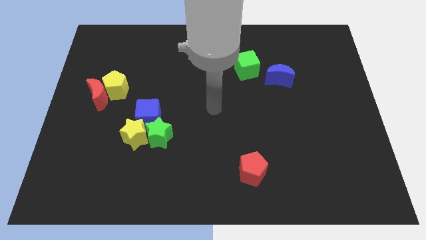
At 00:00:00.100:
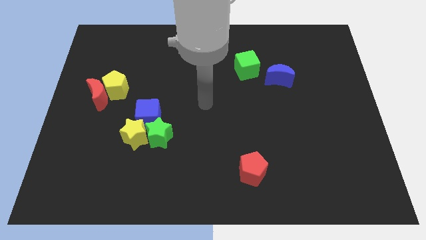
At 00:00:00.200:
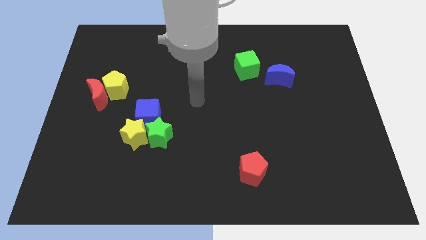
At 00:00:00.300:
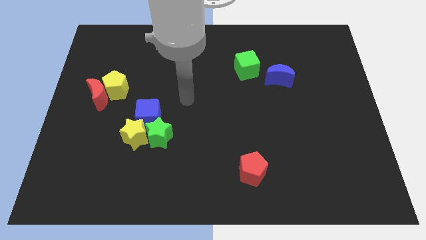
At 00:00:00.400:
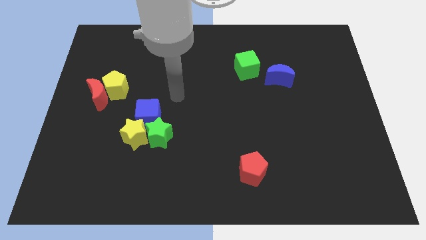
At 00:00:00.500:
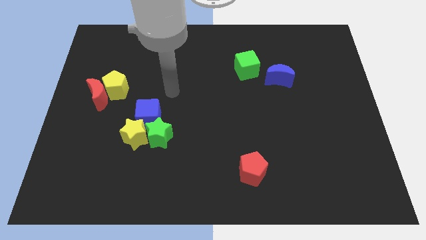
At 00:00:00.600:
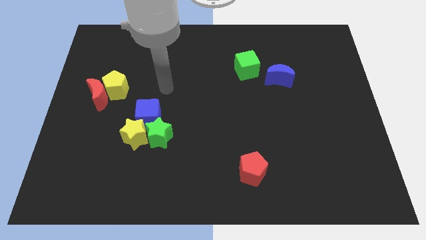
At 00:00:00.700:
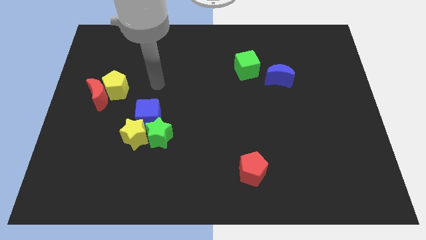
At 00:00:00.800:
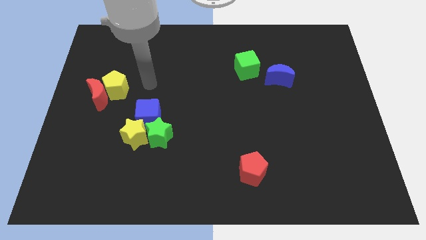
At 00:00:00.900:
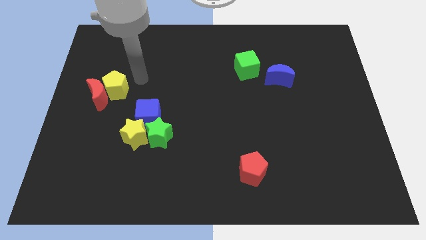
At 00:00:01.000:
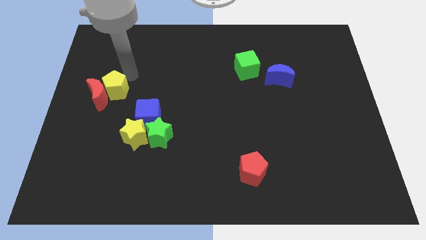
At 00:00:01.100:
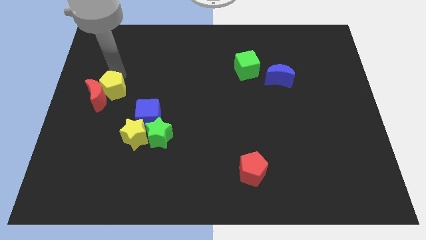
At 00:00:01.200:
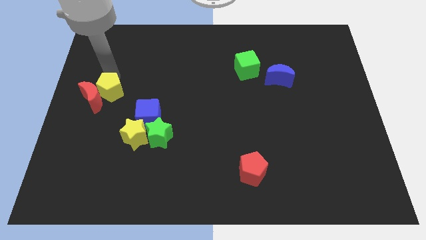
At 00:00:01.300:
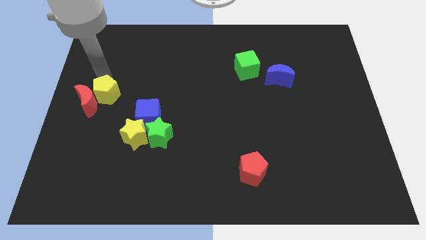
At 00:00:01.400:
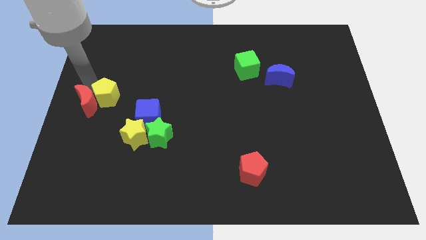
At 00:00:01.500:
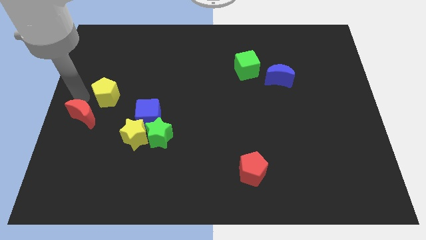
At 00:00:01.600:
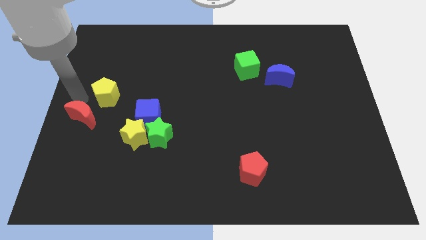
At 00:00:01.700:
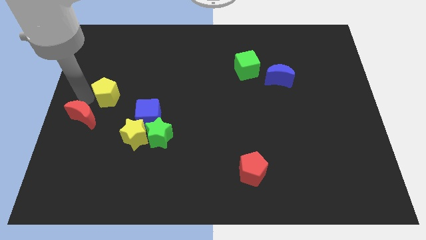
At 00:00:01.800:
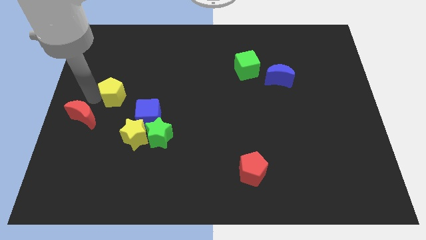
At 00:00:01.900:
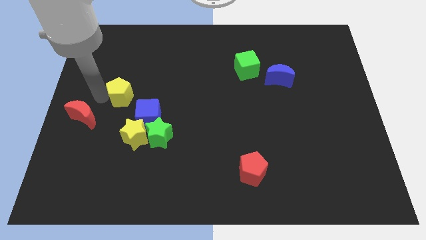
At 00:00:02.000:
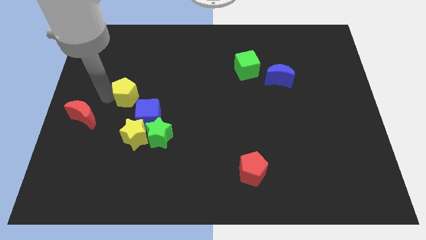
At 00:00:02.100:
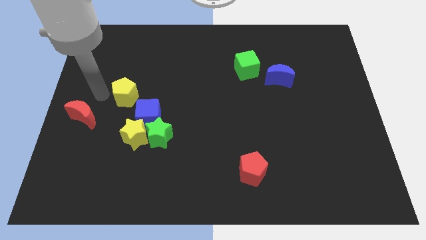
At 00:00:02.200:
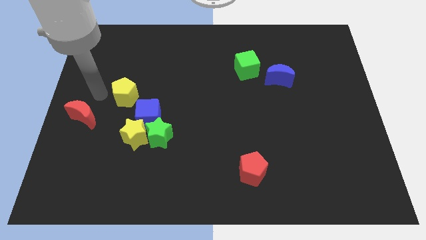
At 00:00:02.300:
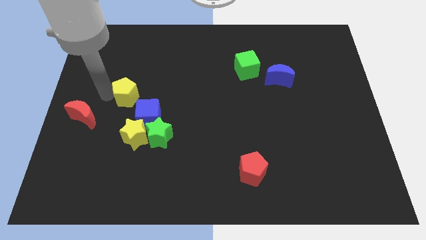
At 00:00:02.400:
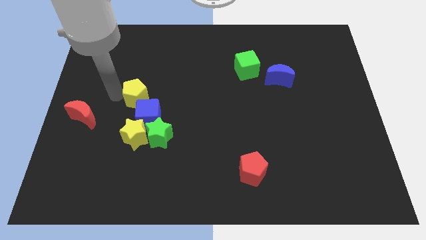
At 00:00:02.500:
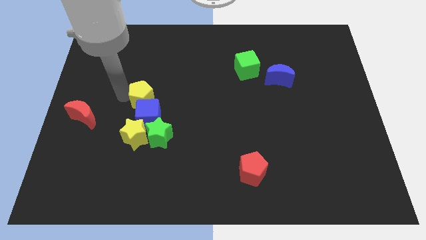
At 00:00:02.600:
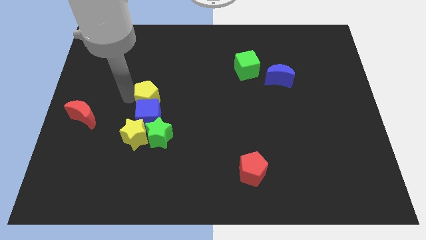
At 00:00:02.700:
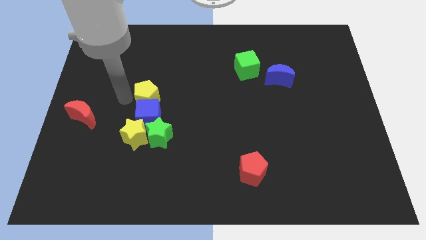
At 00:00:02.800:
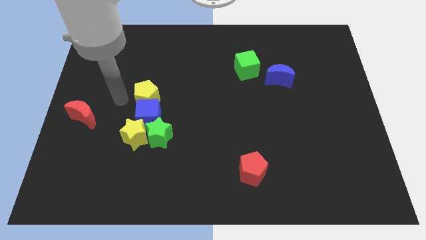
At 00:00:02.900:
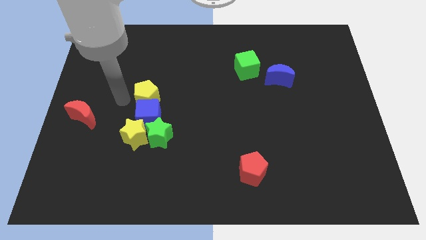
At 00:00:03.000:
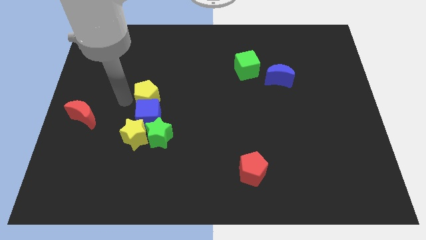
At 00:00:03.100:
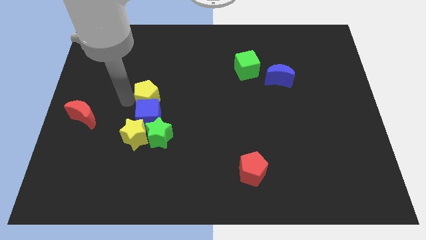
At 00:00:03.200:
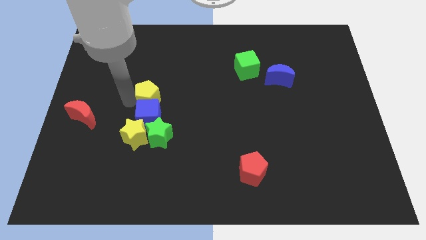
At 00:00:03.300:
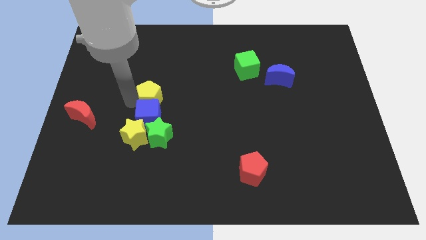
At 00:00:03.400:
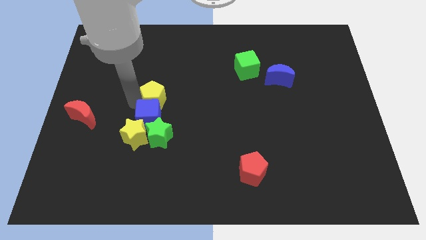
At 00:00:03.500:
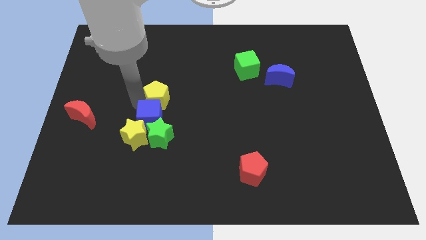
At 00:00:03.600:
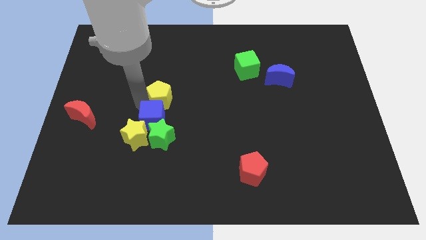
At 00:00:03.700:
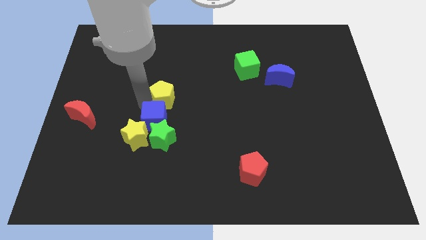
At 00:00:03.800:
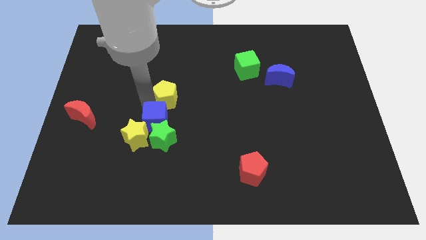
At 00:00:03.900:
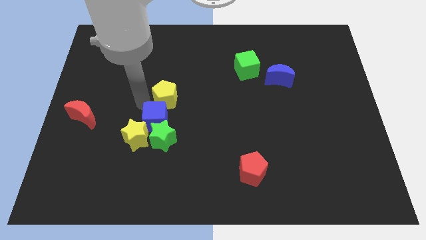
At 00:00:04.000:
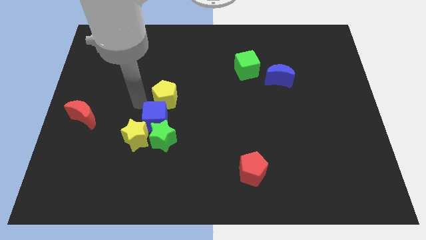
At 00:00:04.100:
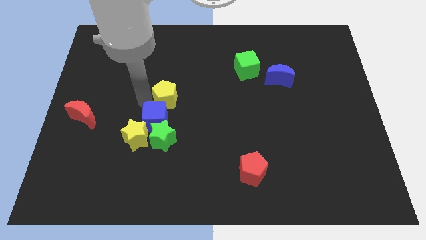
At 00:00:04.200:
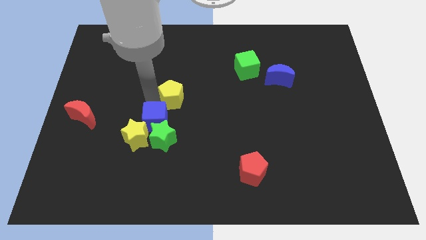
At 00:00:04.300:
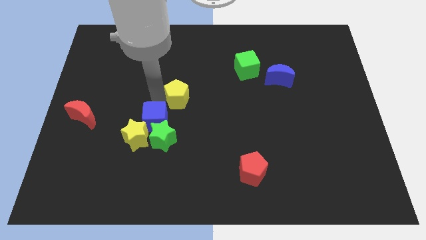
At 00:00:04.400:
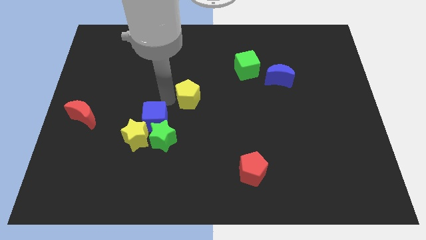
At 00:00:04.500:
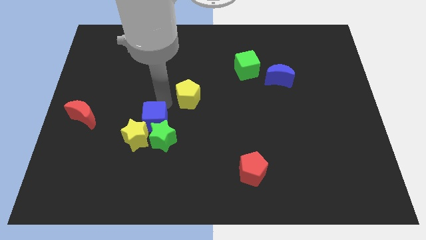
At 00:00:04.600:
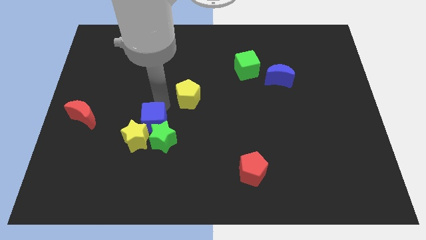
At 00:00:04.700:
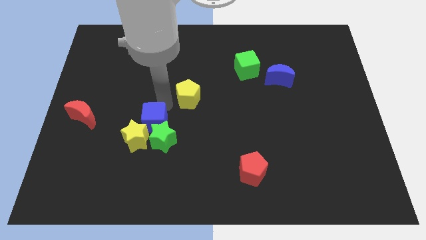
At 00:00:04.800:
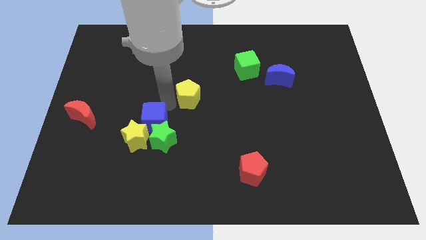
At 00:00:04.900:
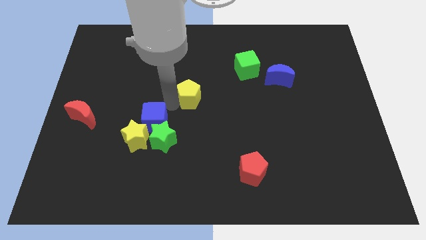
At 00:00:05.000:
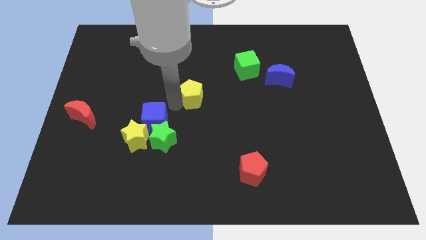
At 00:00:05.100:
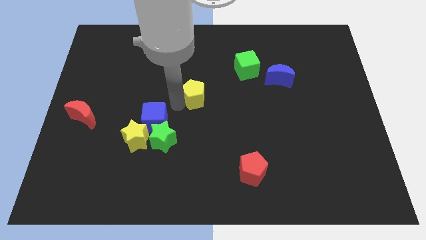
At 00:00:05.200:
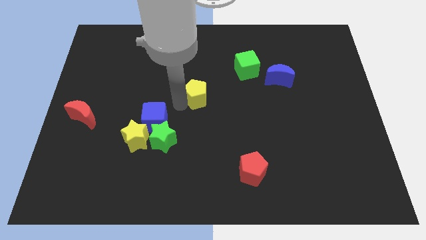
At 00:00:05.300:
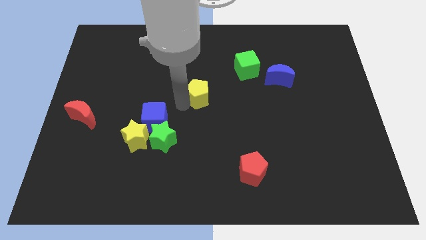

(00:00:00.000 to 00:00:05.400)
push the yellow pentagon right

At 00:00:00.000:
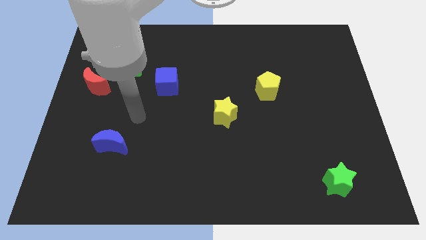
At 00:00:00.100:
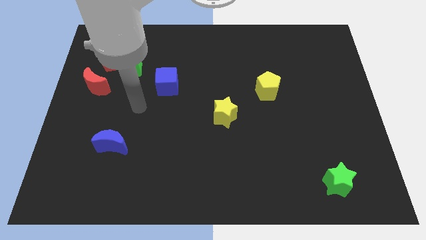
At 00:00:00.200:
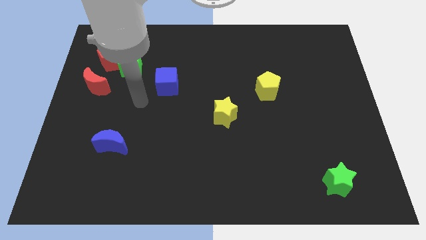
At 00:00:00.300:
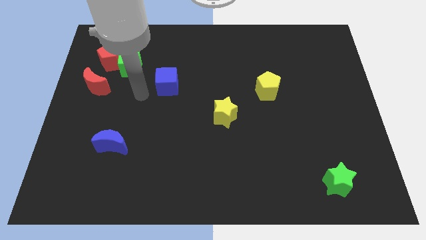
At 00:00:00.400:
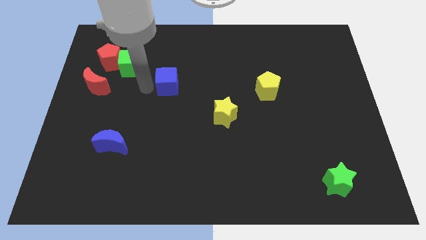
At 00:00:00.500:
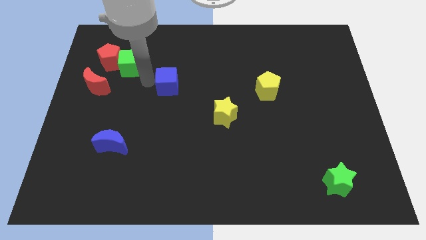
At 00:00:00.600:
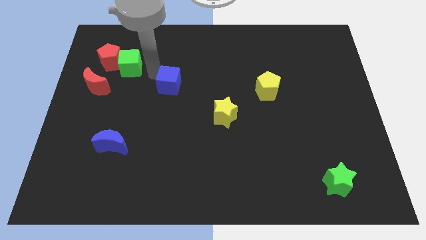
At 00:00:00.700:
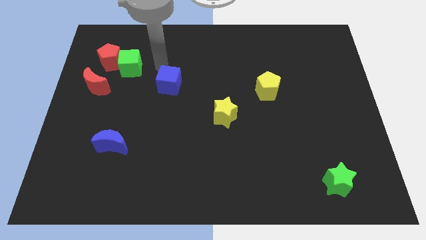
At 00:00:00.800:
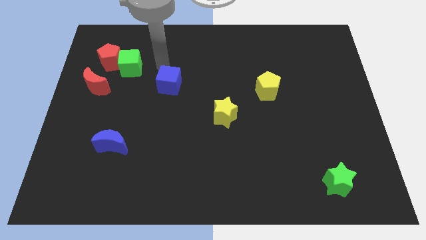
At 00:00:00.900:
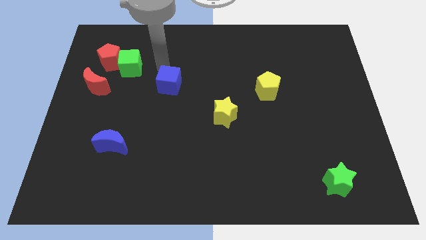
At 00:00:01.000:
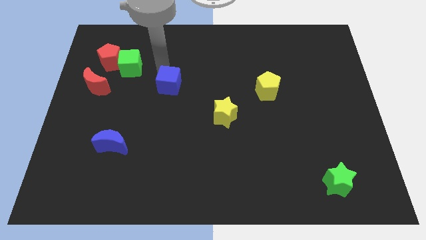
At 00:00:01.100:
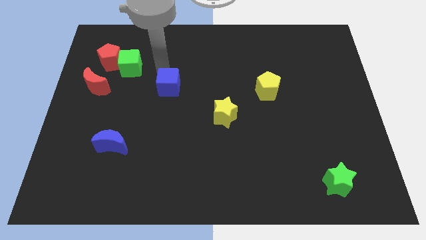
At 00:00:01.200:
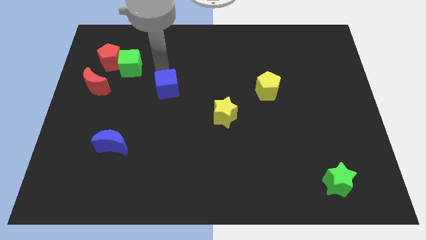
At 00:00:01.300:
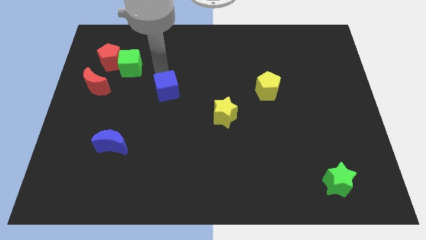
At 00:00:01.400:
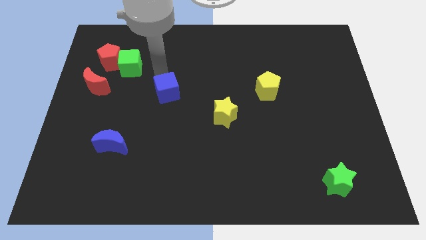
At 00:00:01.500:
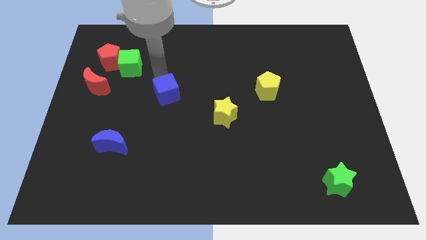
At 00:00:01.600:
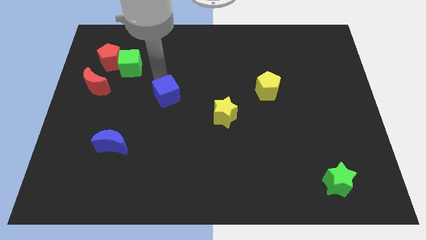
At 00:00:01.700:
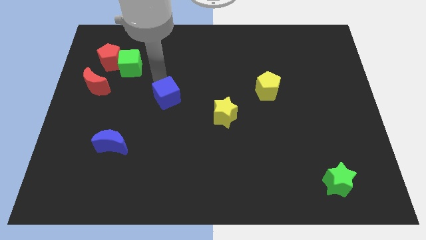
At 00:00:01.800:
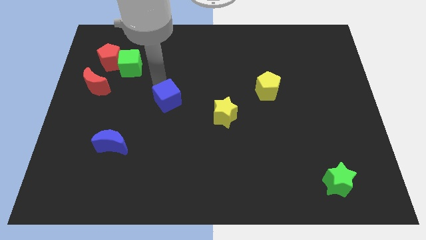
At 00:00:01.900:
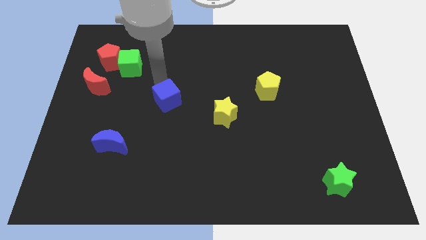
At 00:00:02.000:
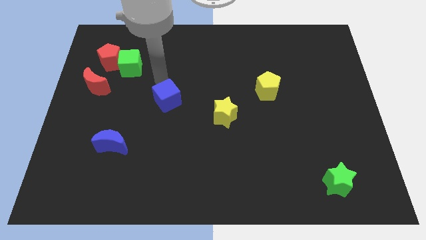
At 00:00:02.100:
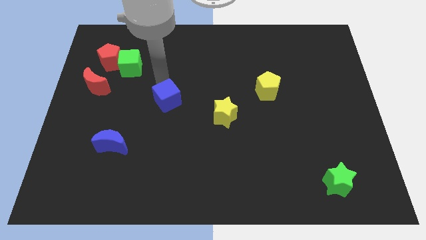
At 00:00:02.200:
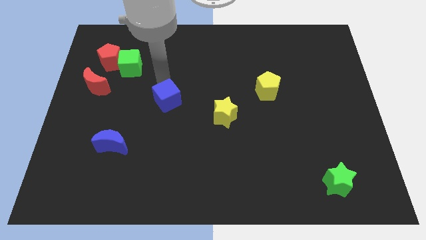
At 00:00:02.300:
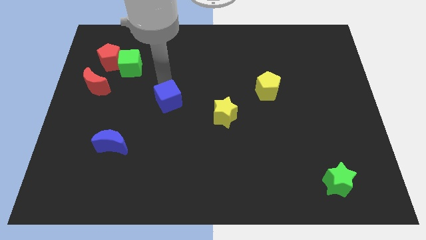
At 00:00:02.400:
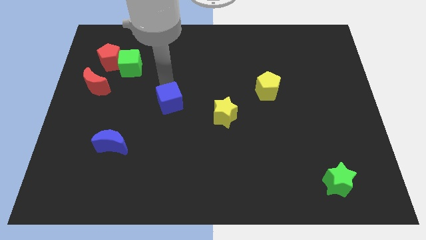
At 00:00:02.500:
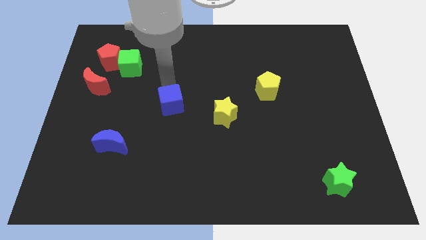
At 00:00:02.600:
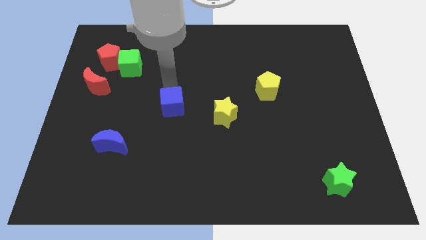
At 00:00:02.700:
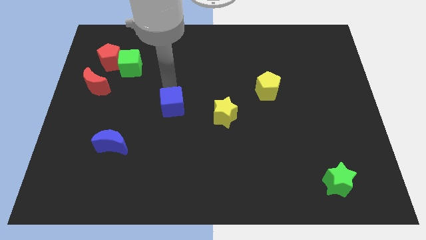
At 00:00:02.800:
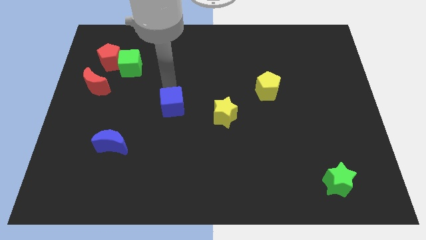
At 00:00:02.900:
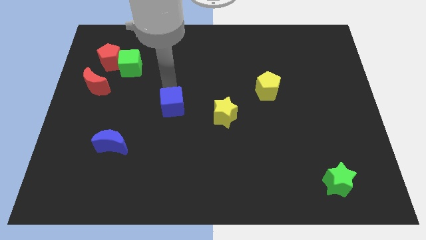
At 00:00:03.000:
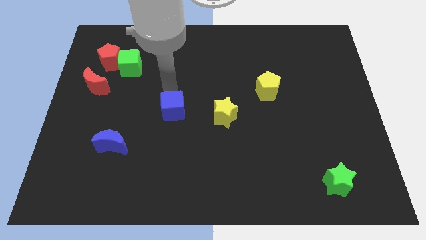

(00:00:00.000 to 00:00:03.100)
slide the blue cube somewhat down
